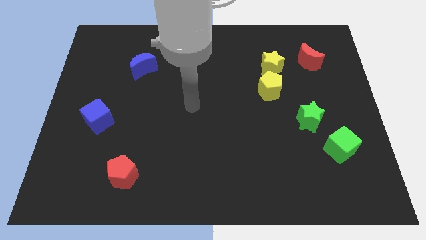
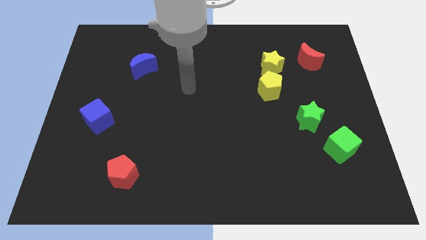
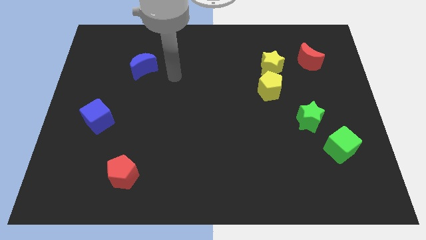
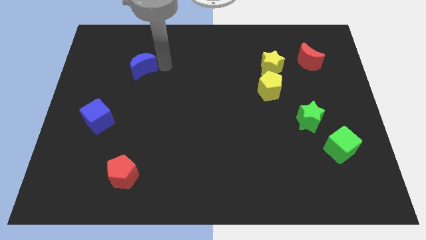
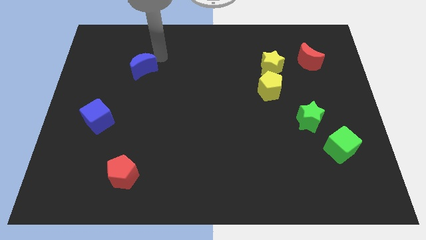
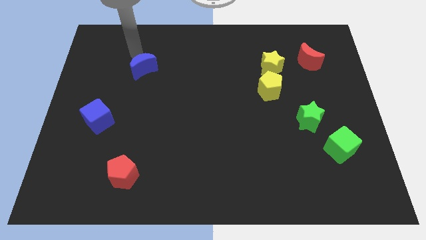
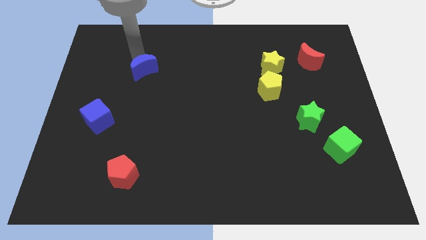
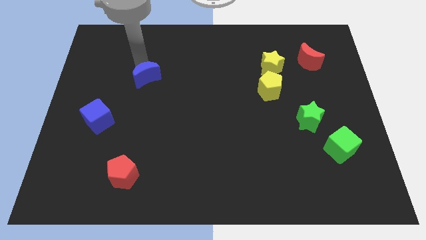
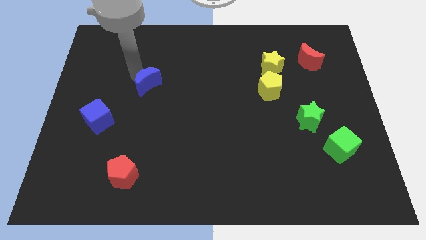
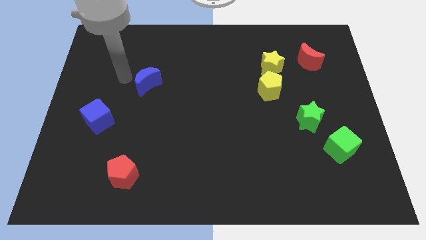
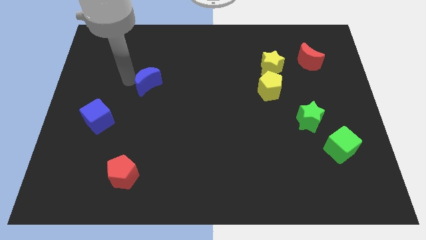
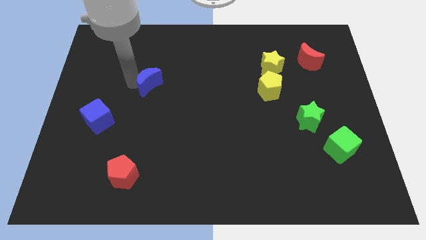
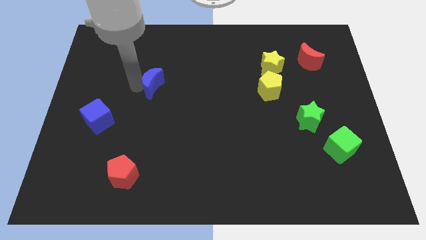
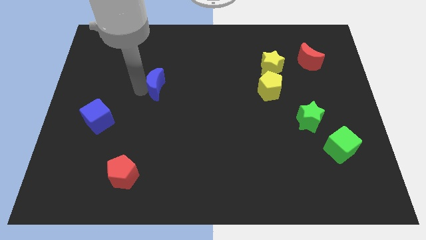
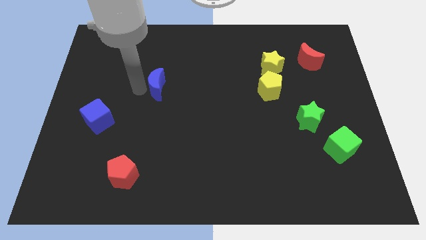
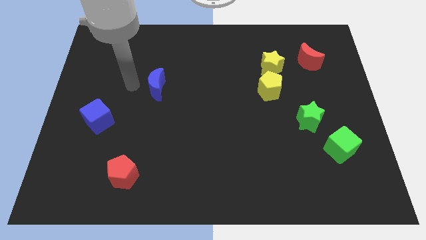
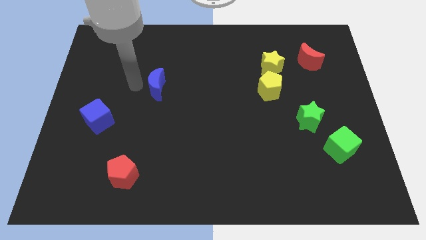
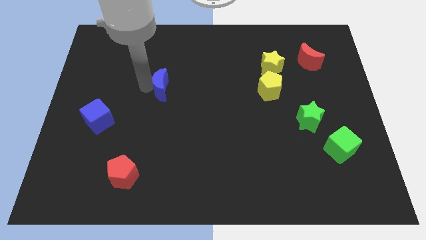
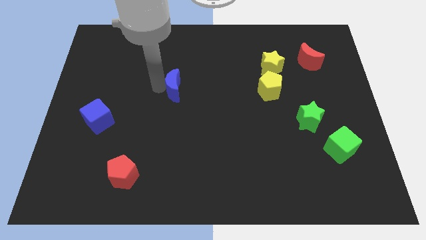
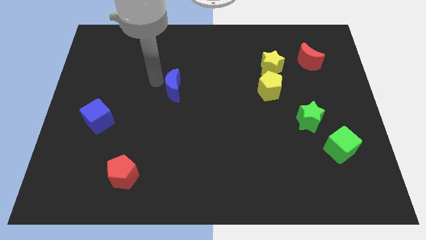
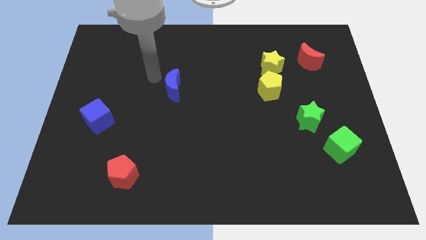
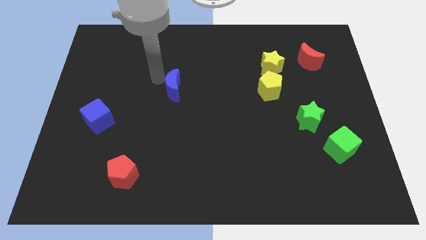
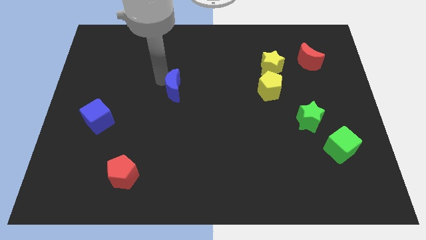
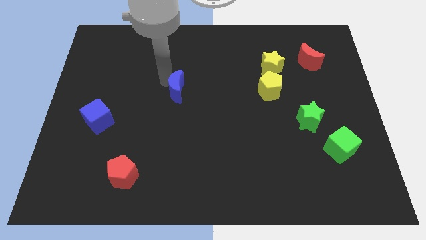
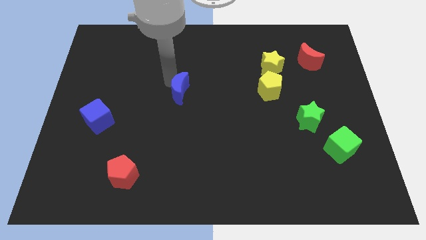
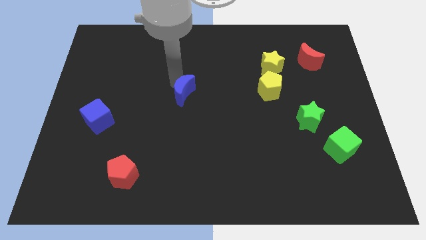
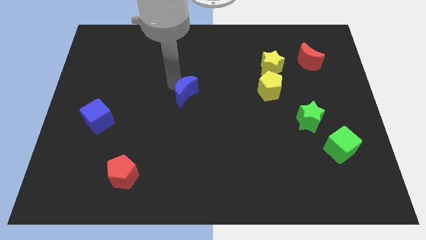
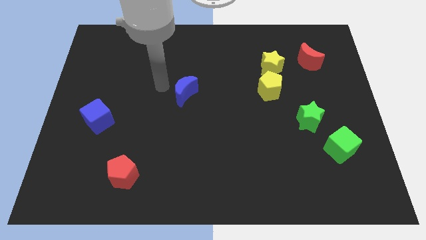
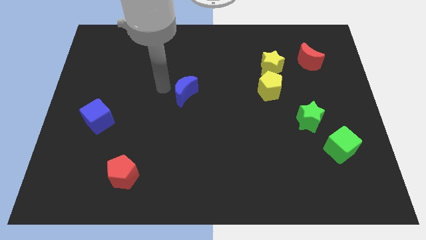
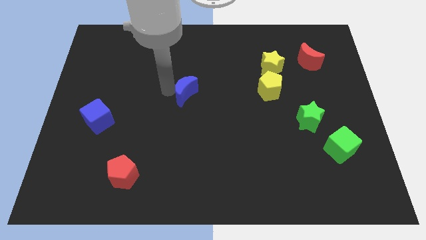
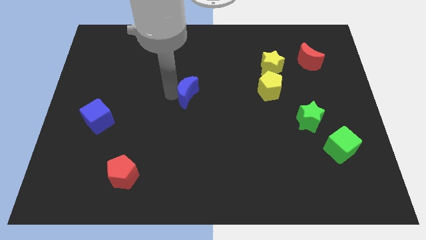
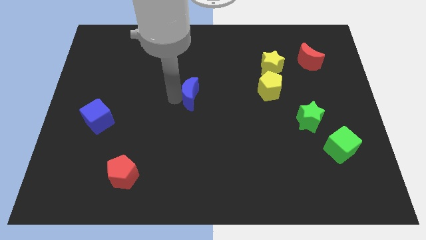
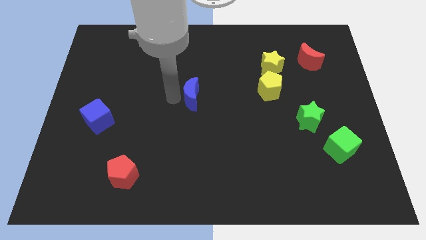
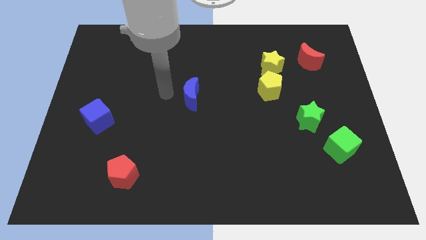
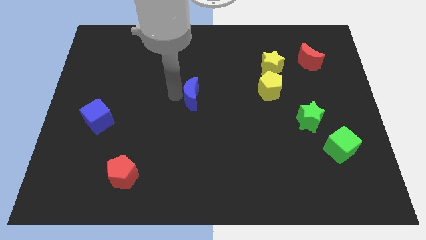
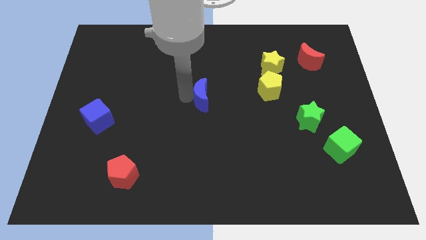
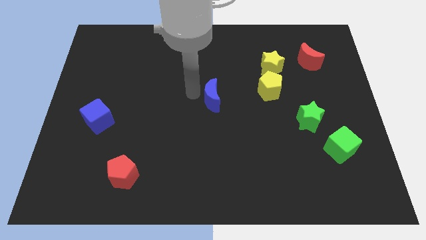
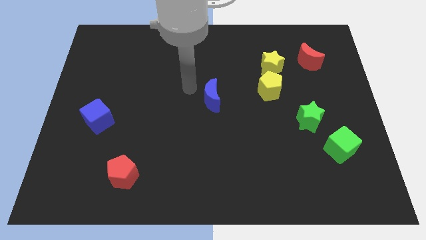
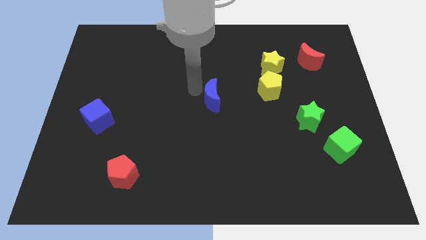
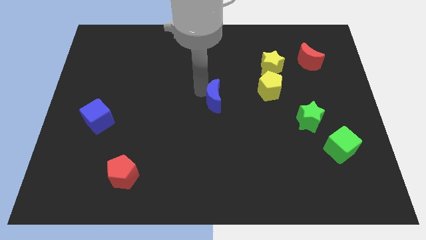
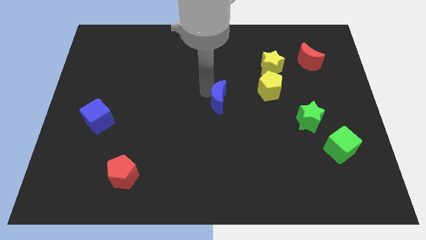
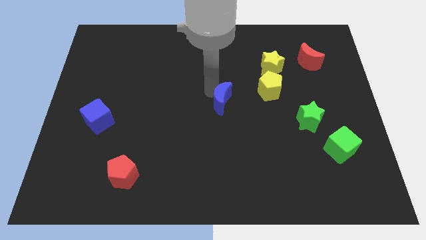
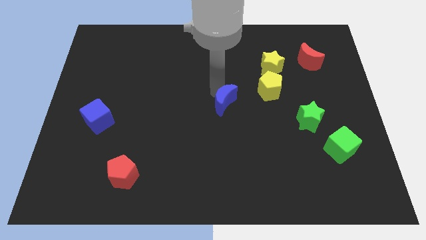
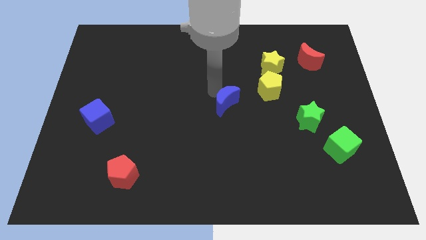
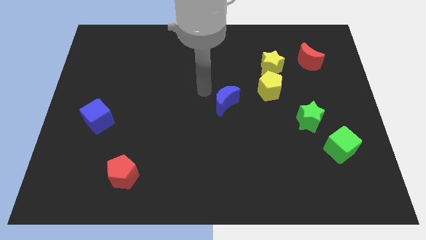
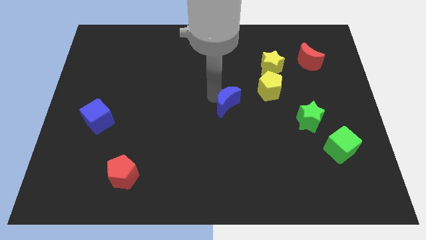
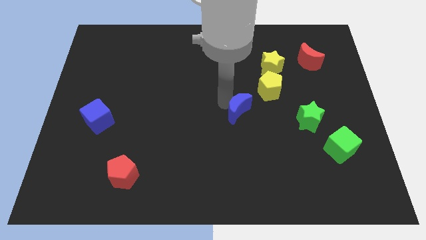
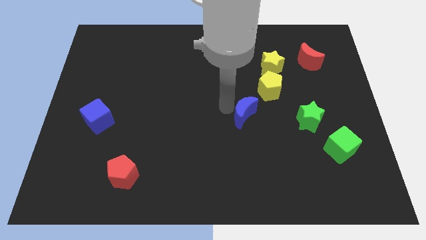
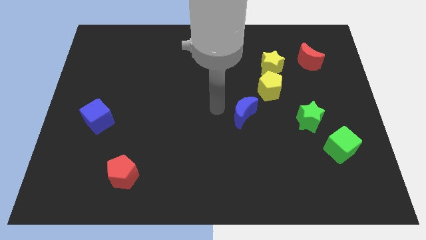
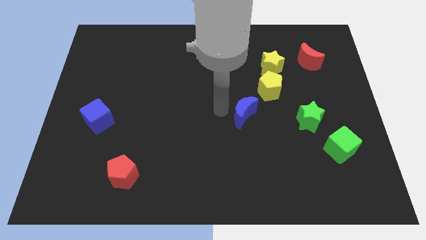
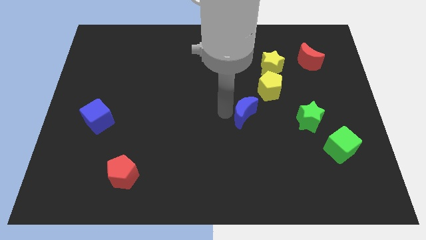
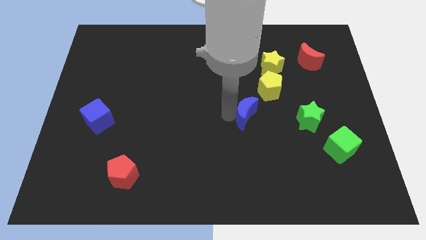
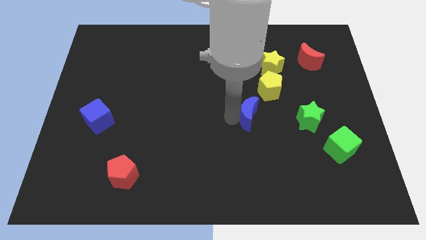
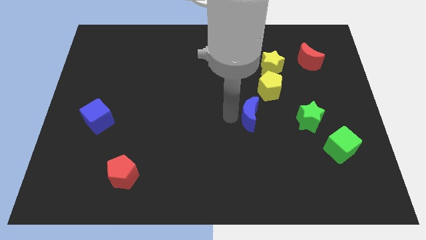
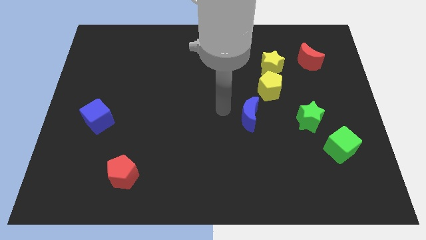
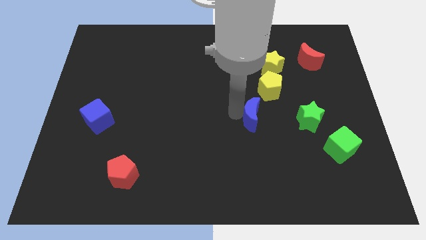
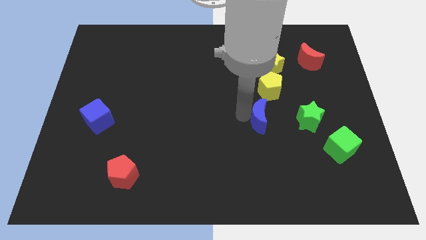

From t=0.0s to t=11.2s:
move the blue moon to the bottom side of the yellow pentagon
